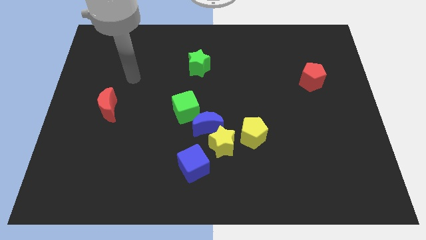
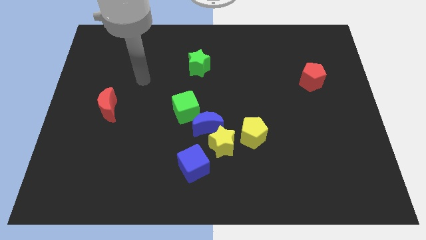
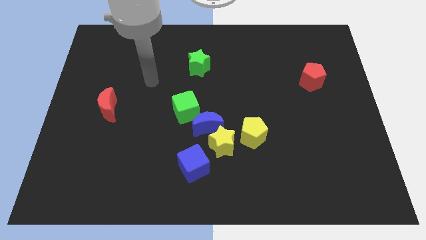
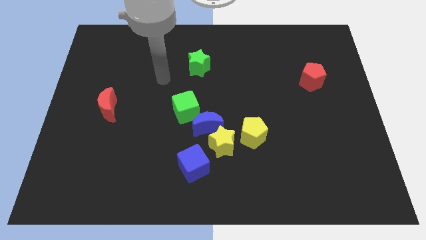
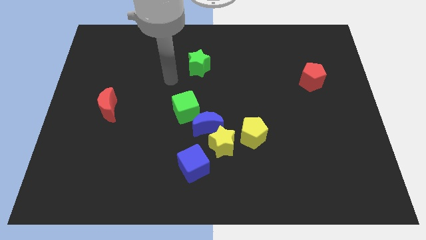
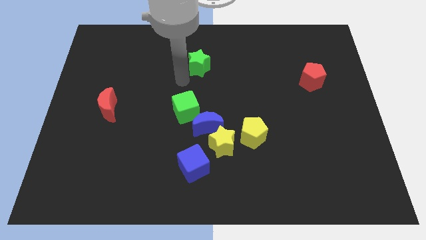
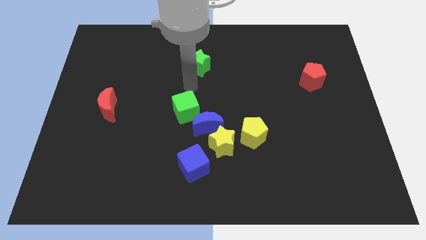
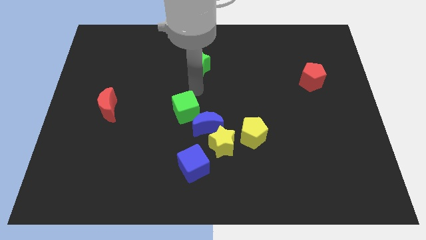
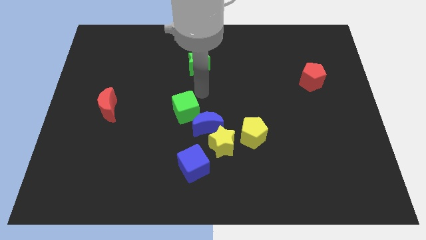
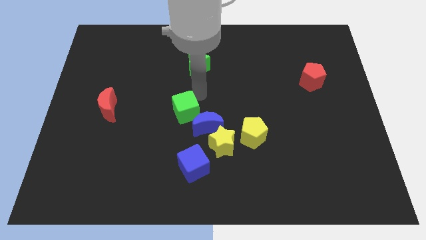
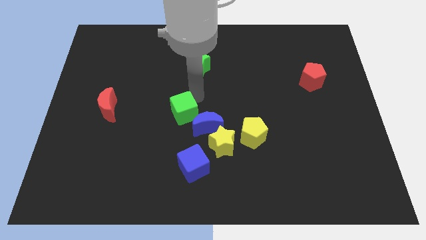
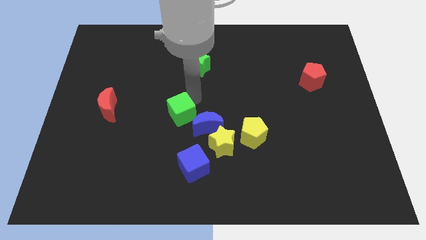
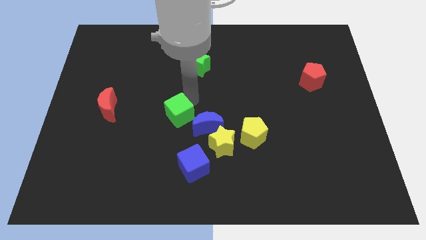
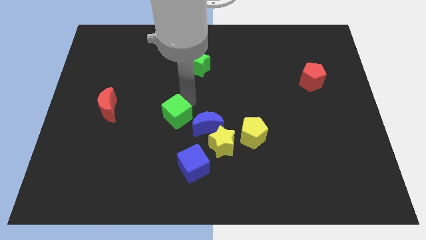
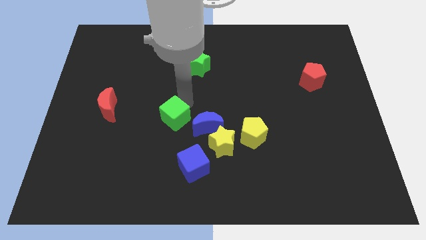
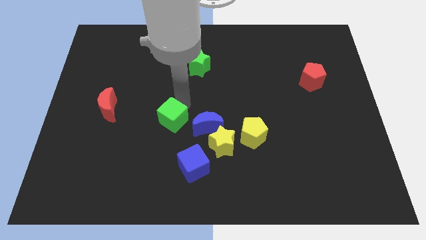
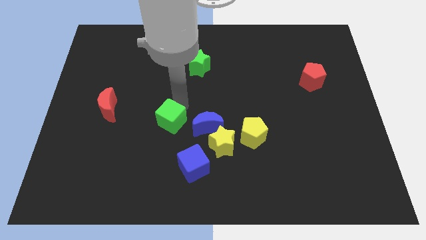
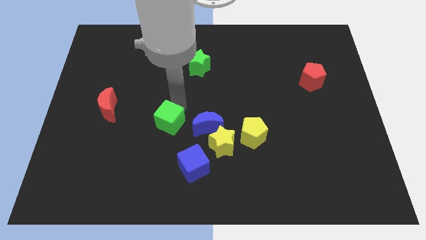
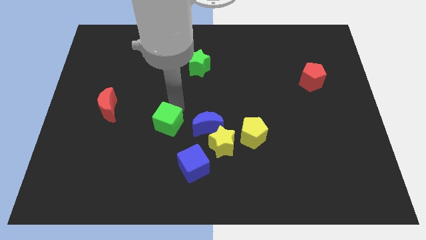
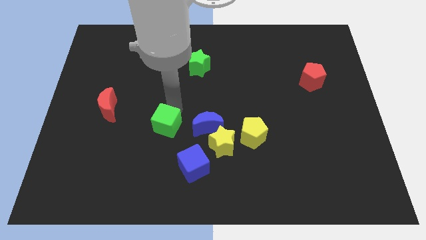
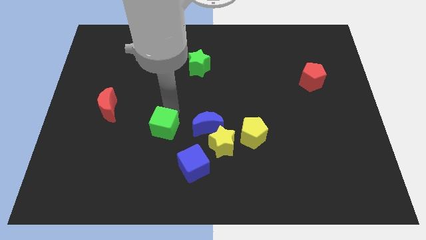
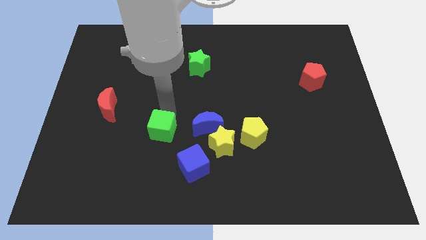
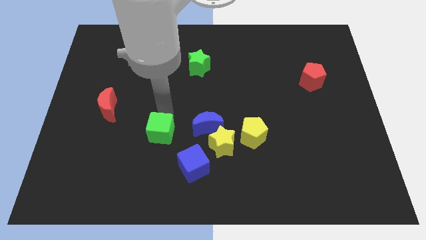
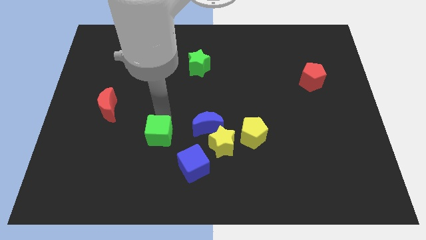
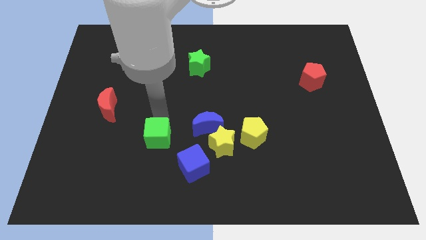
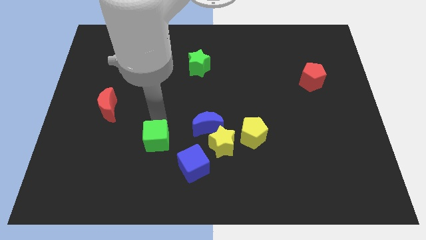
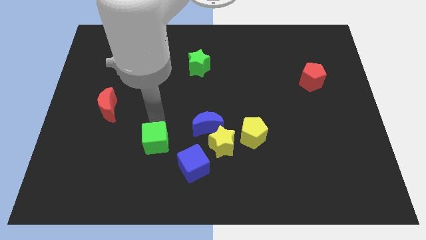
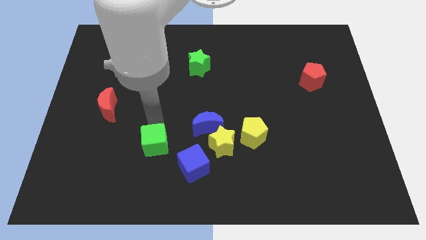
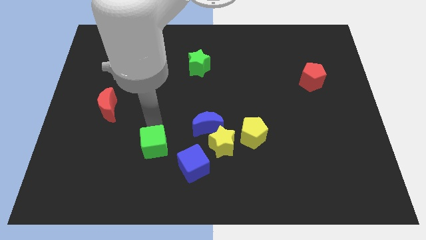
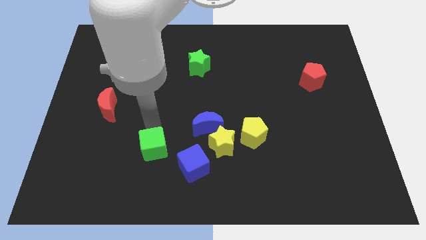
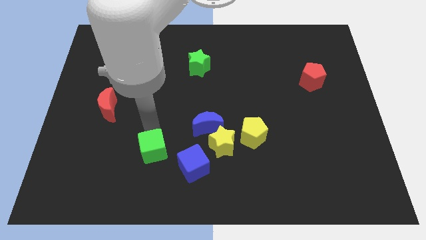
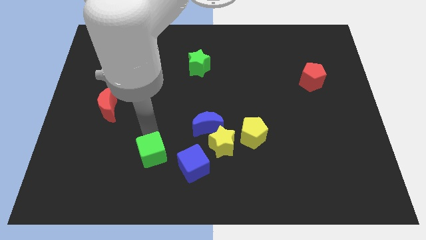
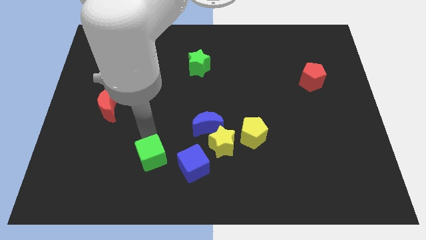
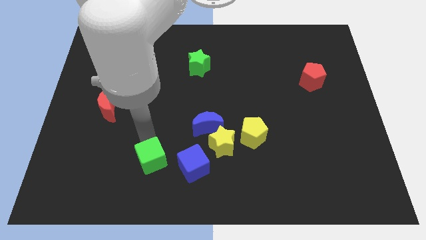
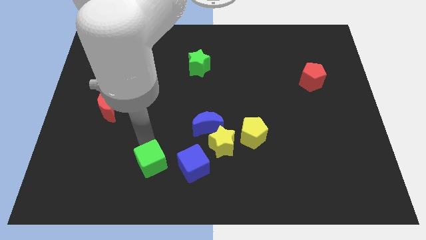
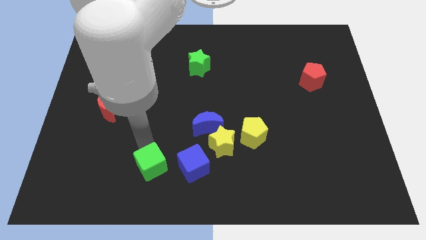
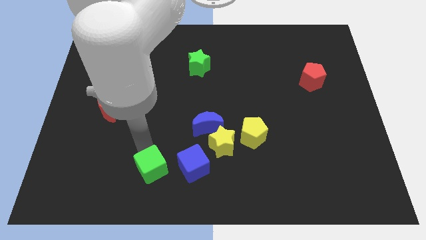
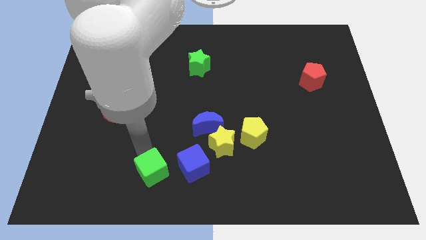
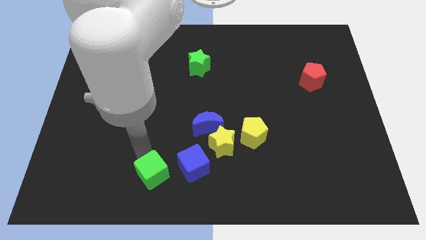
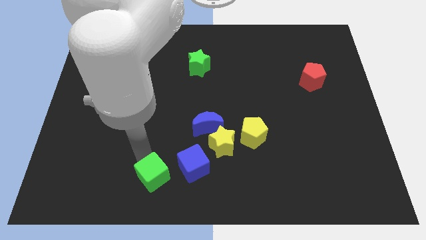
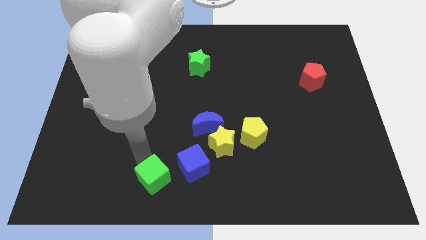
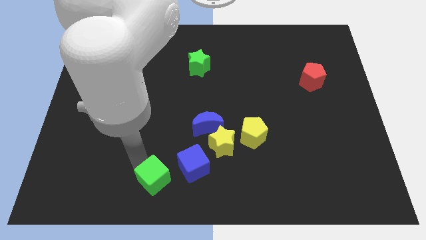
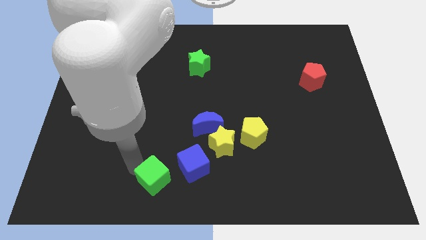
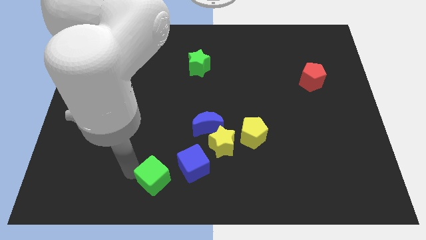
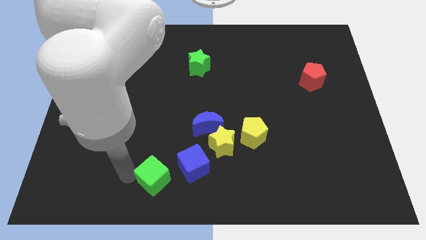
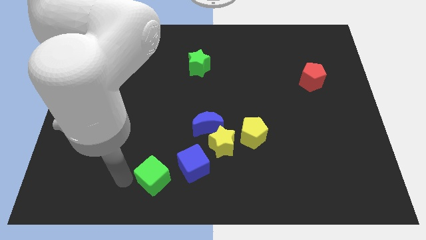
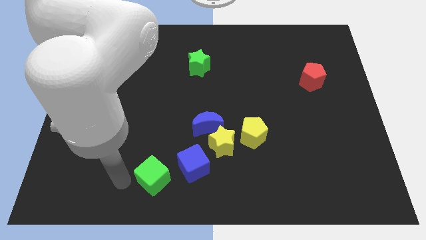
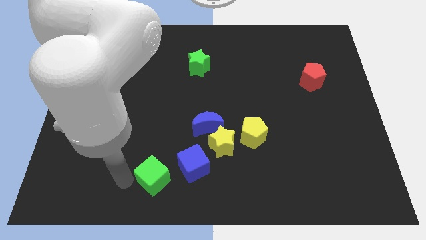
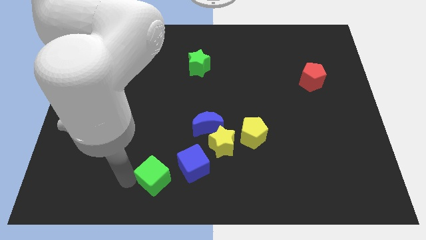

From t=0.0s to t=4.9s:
put the green cube to the bottom

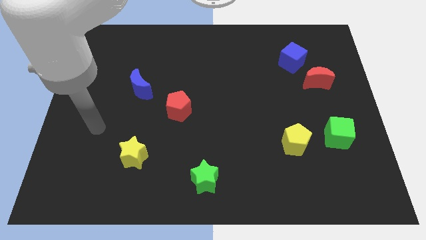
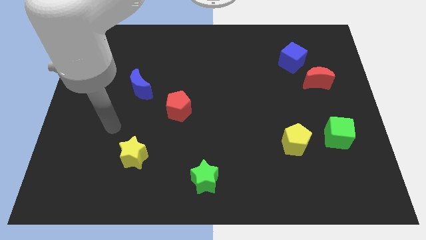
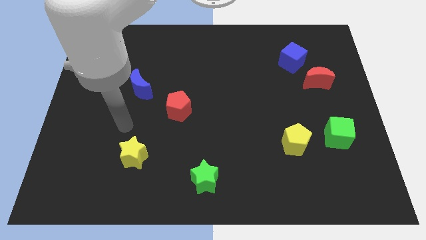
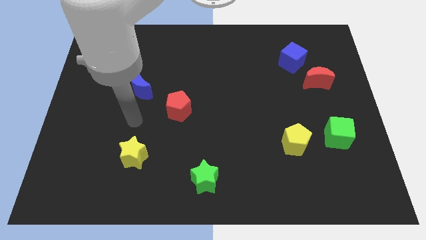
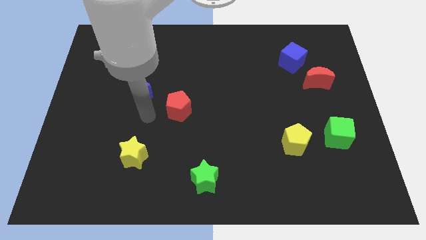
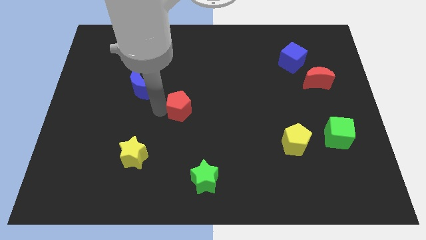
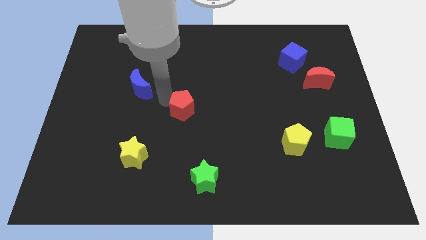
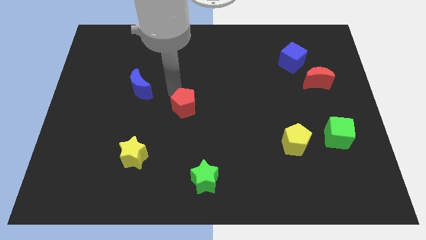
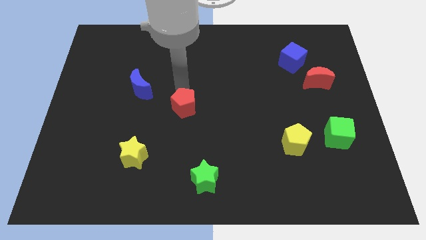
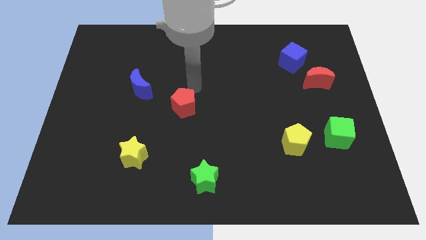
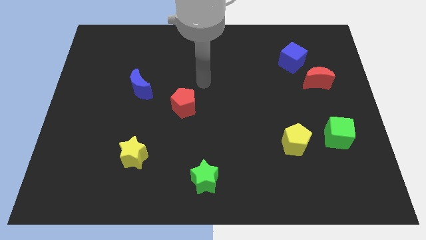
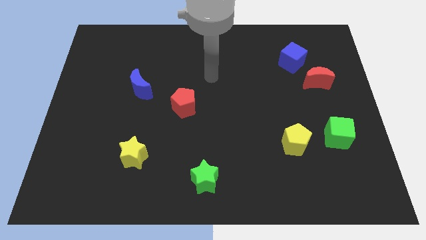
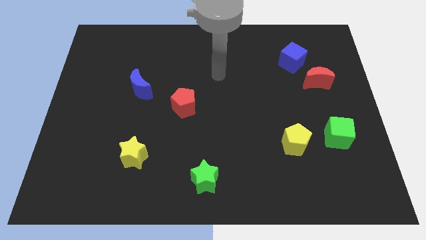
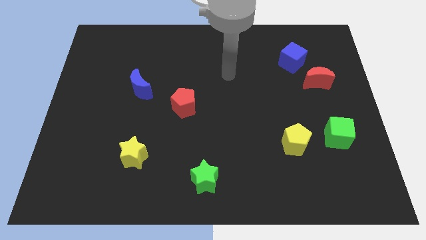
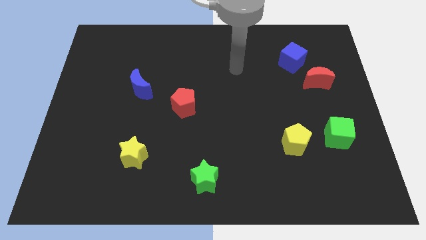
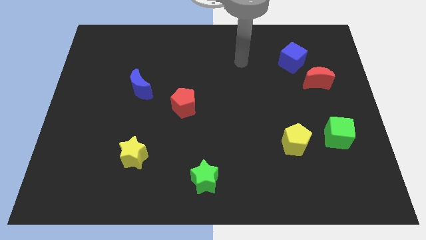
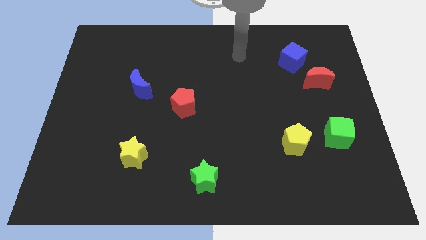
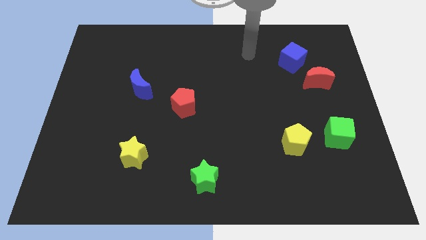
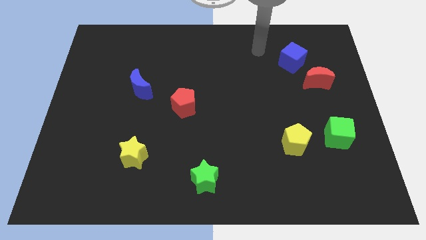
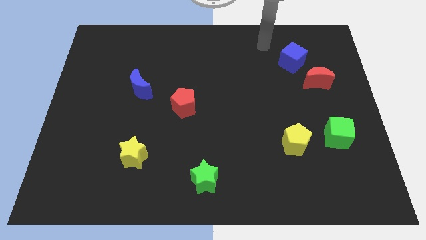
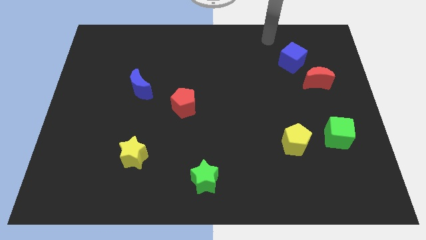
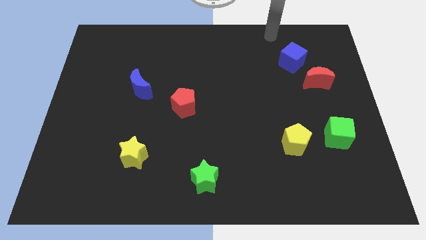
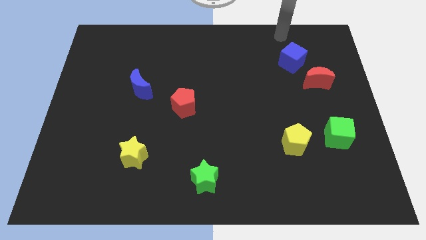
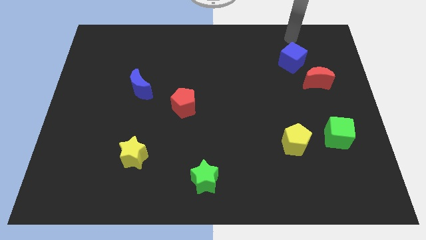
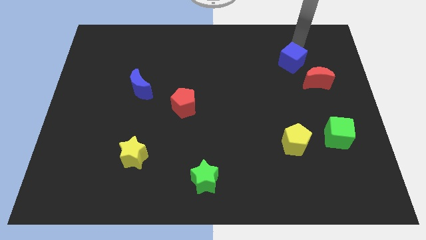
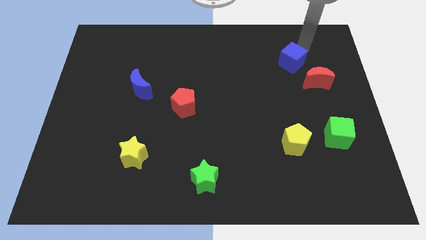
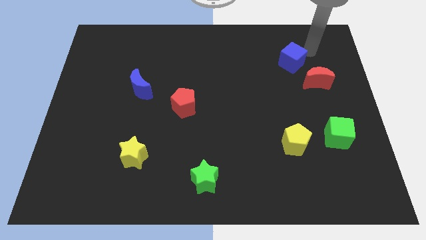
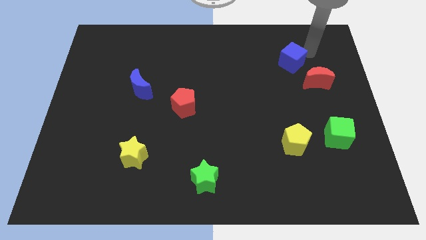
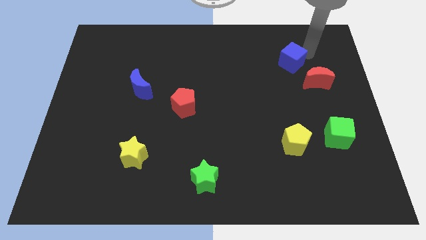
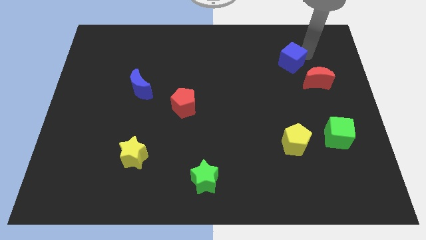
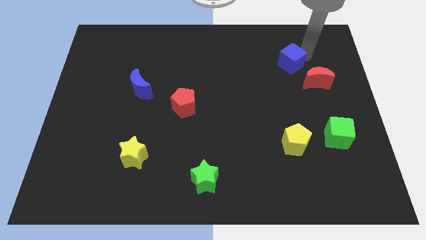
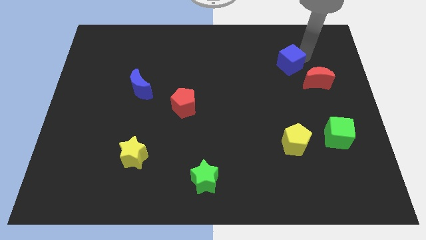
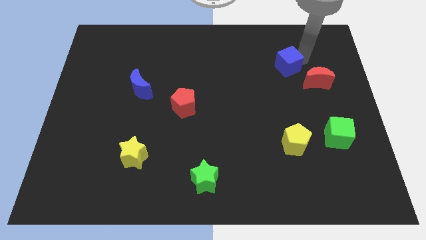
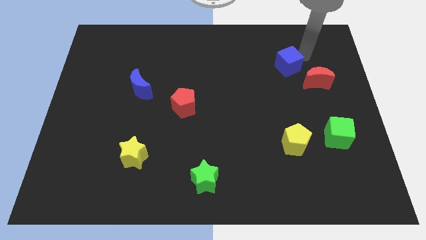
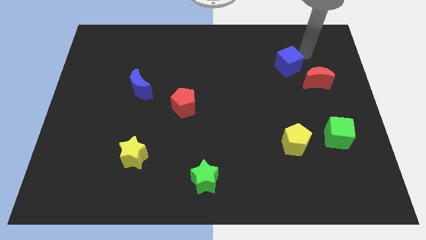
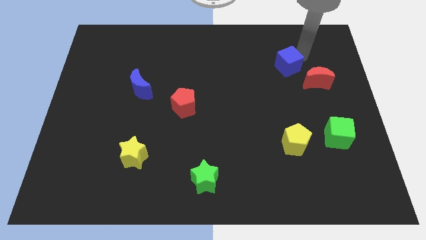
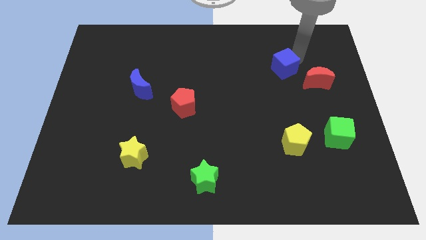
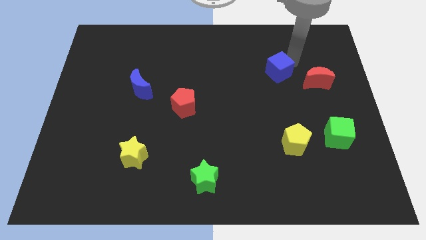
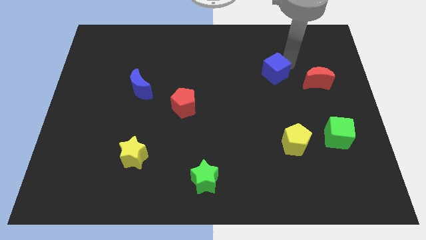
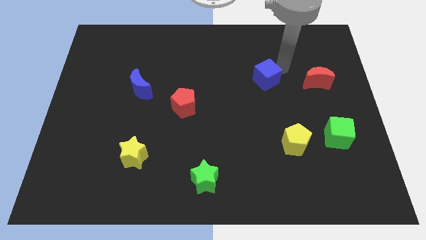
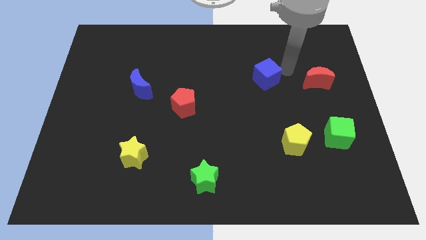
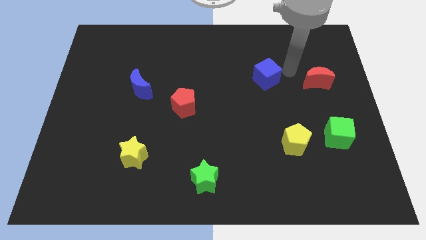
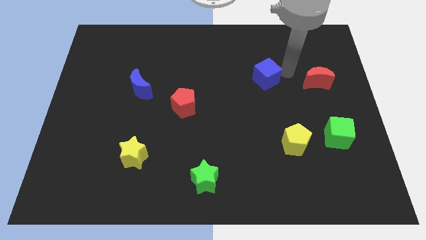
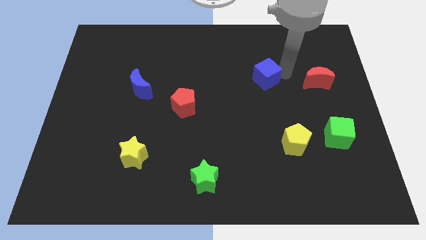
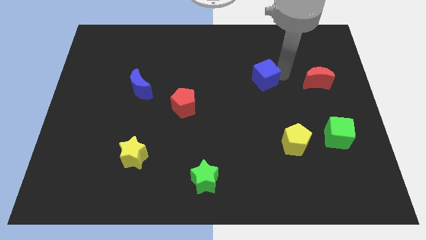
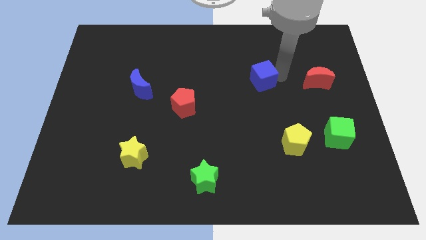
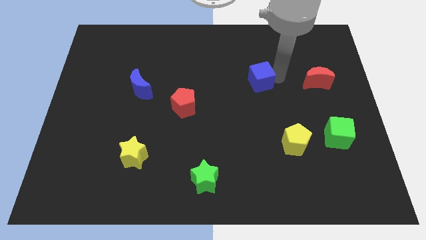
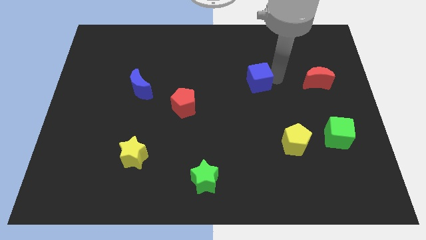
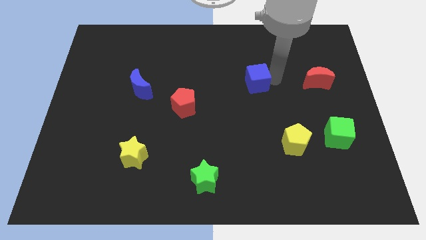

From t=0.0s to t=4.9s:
push the blue cube to the center
